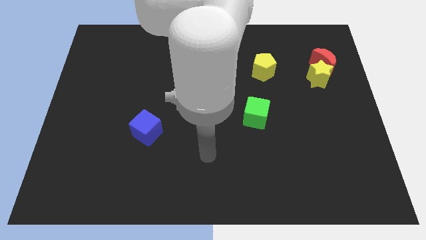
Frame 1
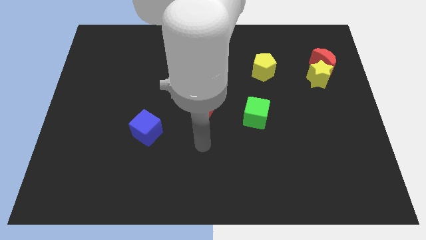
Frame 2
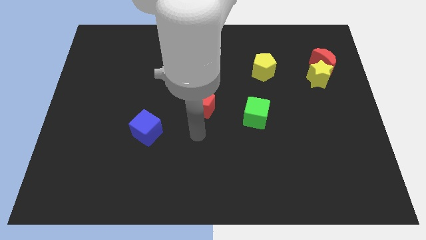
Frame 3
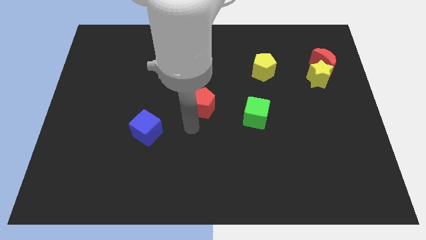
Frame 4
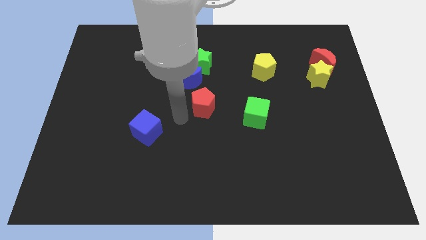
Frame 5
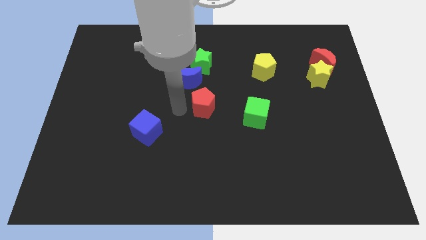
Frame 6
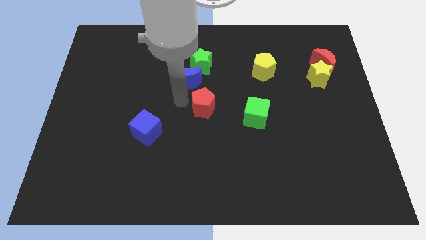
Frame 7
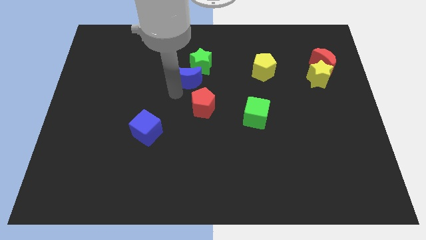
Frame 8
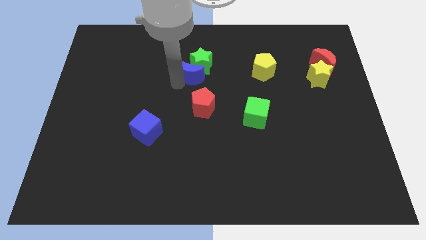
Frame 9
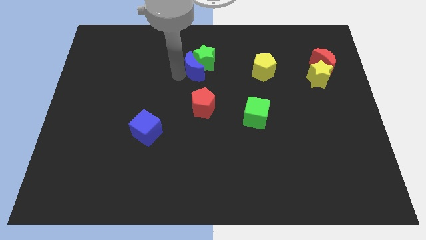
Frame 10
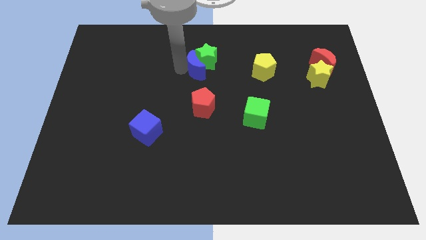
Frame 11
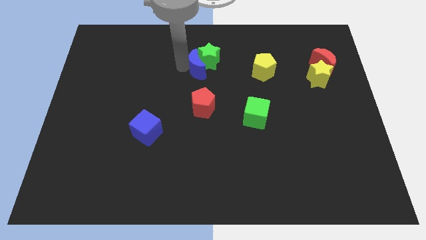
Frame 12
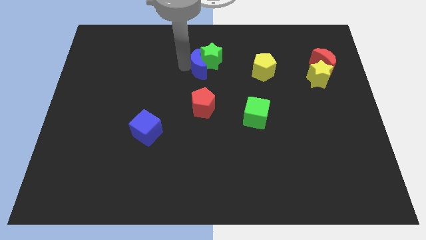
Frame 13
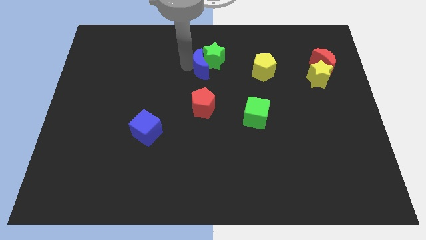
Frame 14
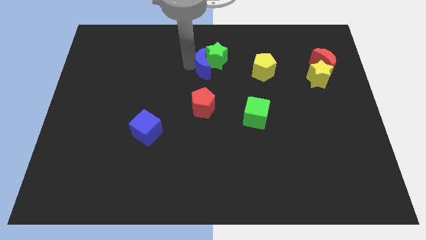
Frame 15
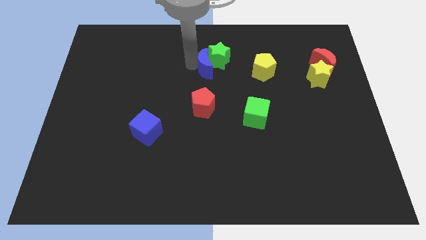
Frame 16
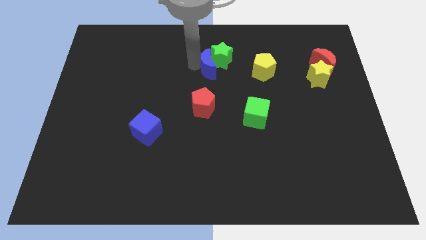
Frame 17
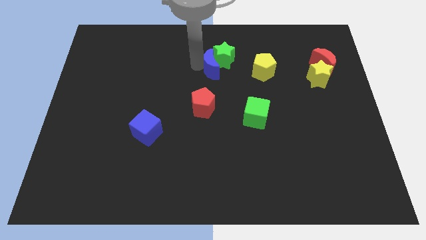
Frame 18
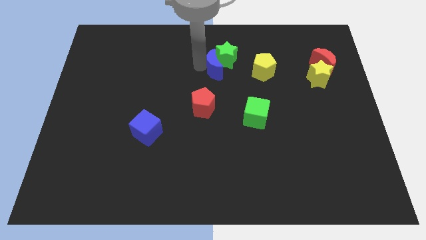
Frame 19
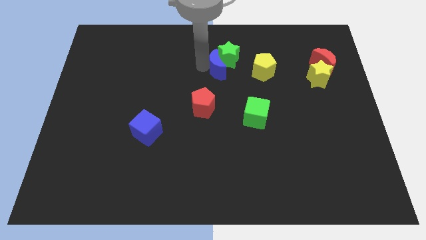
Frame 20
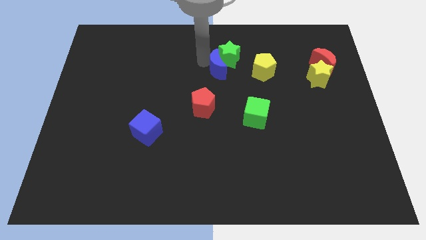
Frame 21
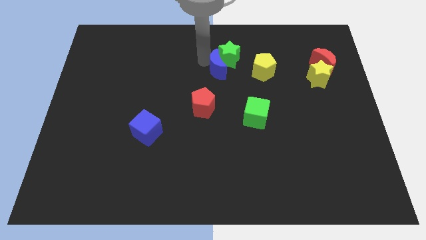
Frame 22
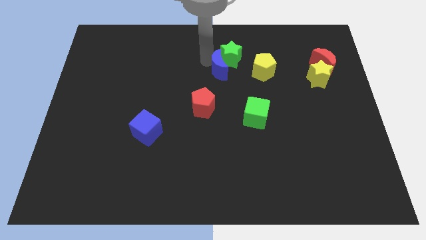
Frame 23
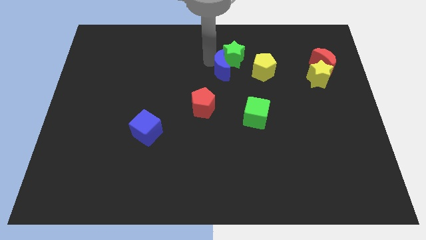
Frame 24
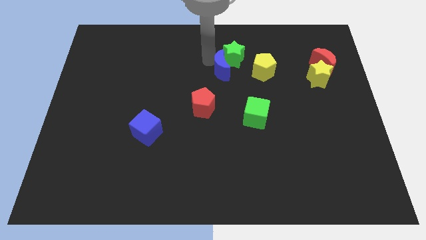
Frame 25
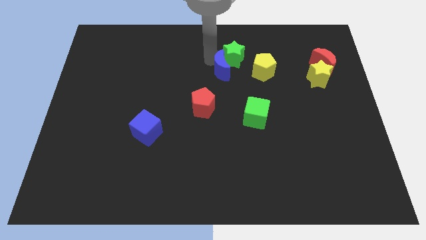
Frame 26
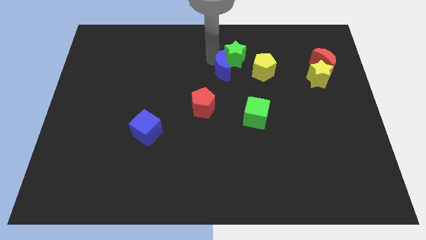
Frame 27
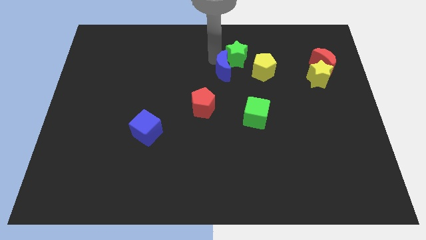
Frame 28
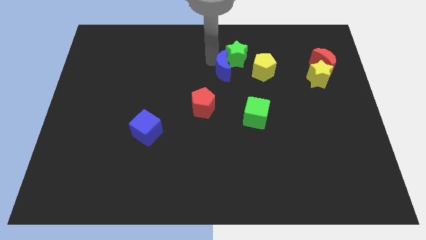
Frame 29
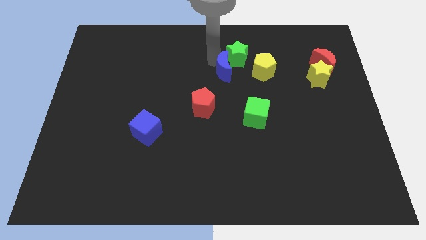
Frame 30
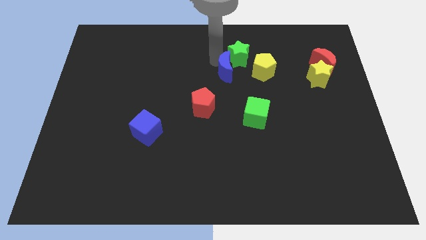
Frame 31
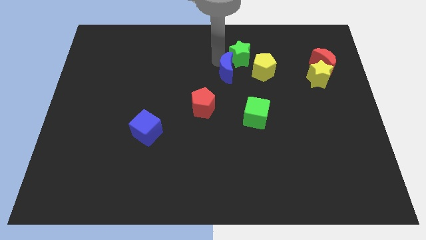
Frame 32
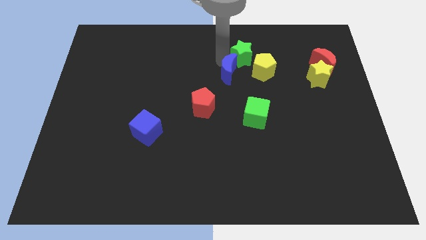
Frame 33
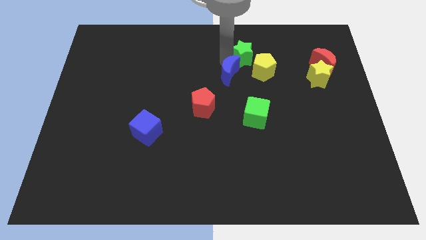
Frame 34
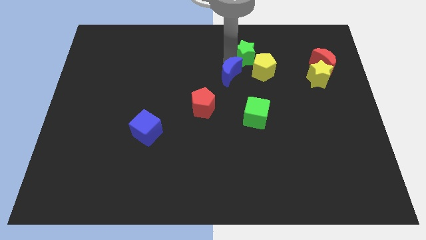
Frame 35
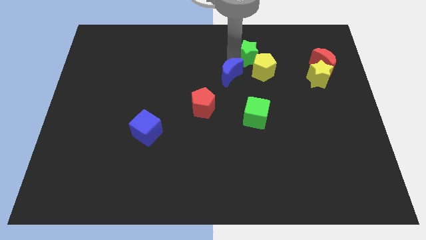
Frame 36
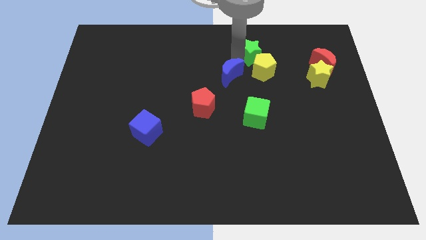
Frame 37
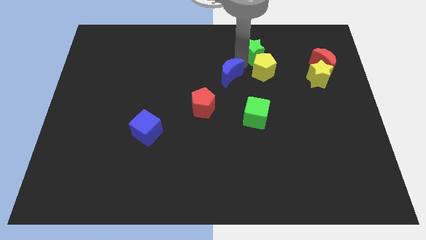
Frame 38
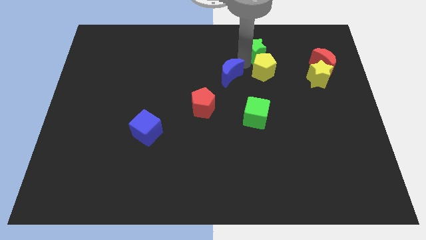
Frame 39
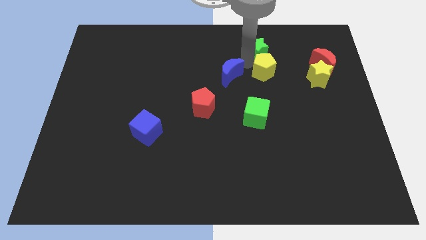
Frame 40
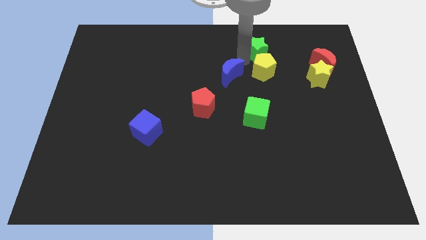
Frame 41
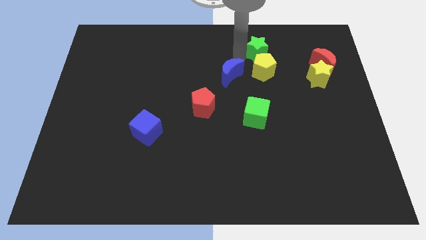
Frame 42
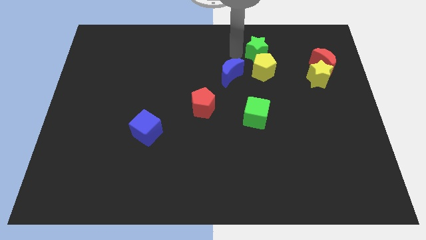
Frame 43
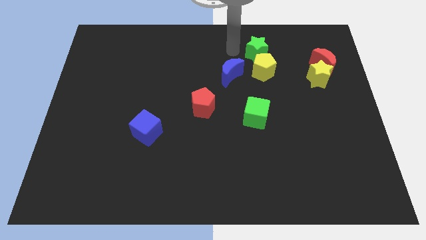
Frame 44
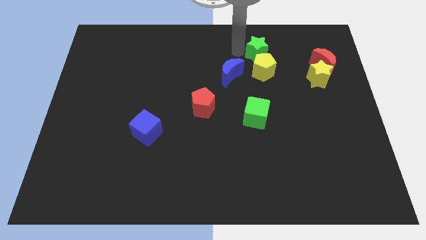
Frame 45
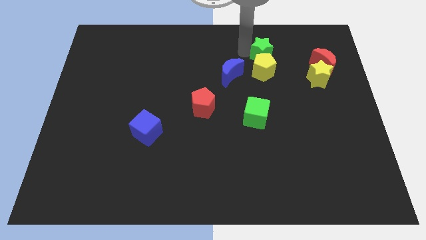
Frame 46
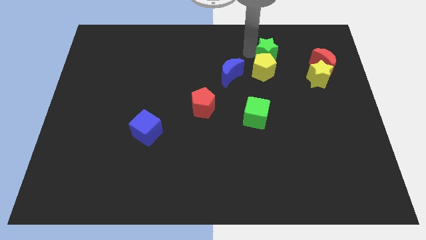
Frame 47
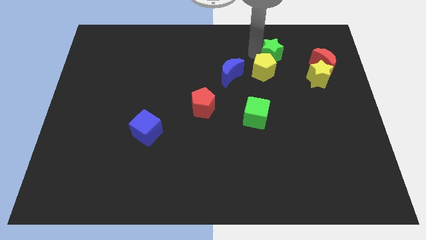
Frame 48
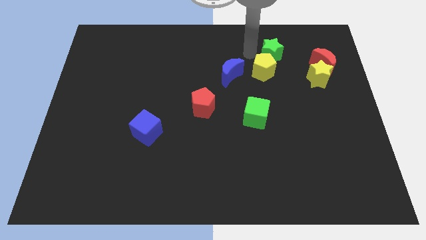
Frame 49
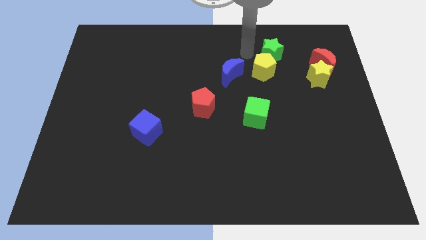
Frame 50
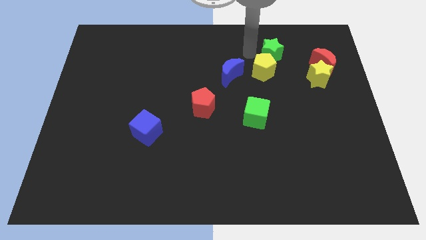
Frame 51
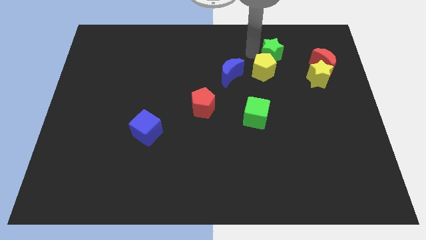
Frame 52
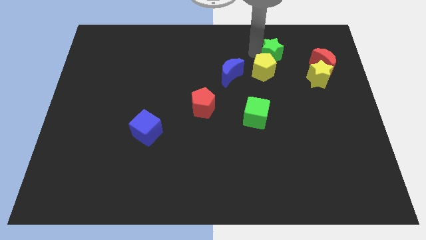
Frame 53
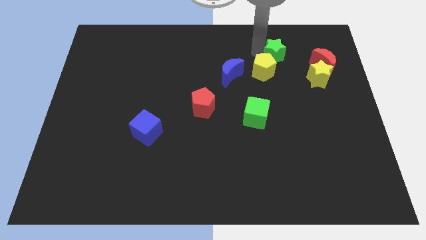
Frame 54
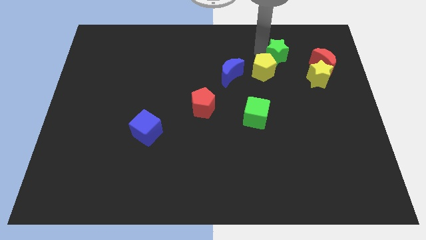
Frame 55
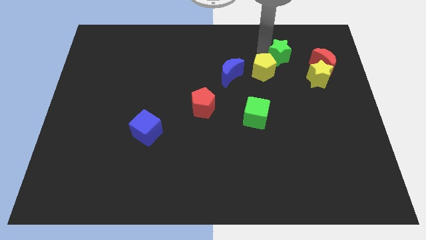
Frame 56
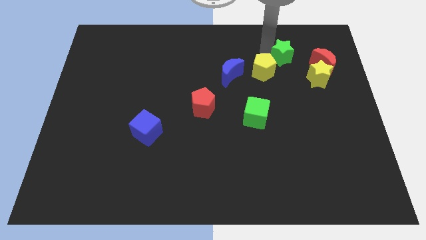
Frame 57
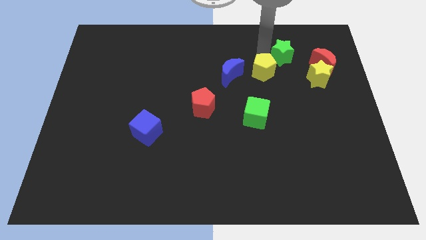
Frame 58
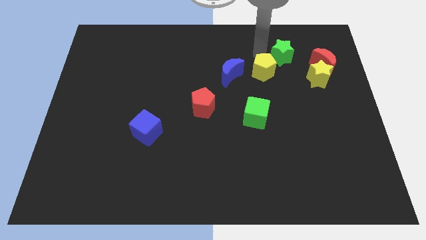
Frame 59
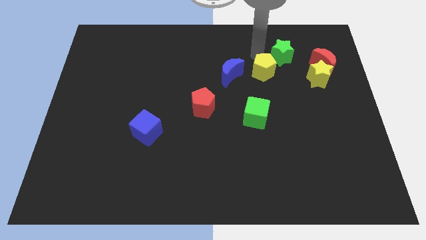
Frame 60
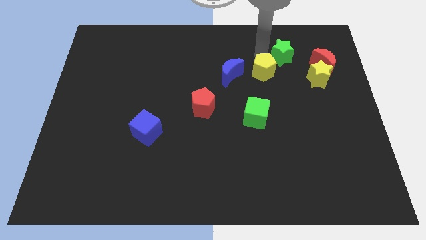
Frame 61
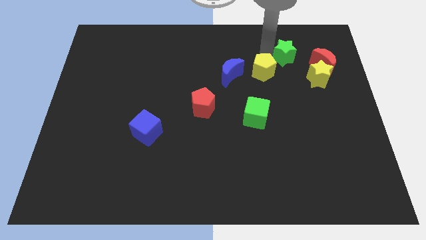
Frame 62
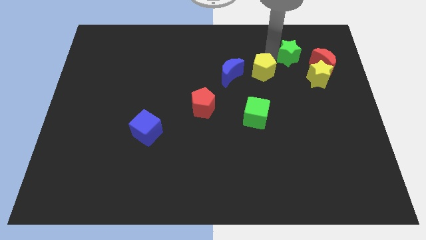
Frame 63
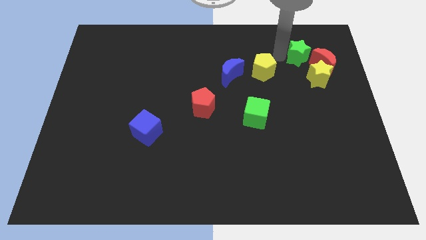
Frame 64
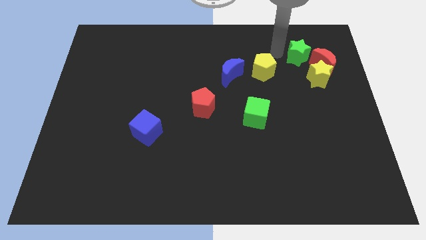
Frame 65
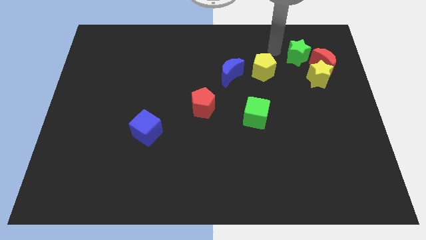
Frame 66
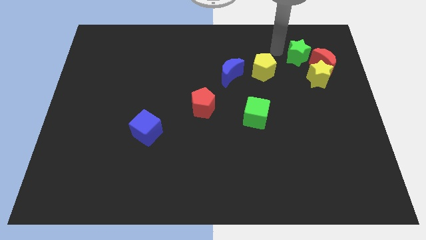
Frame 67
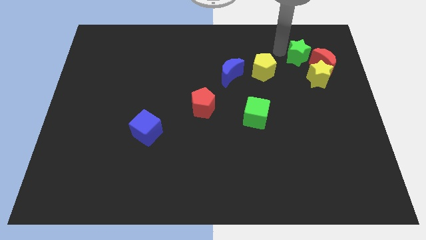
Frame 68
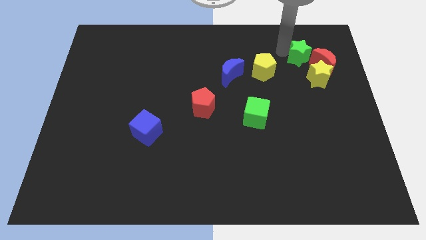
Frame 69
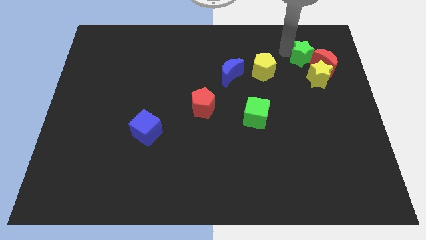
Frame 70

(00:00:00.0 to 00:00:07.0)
slide the green star towards the red moon

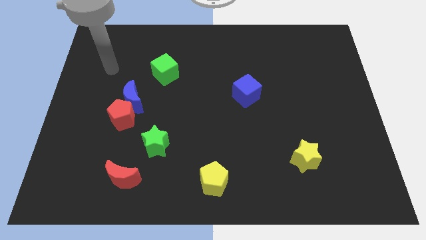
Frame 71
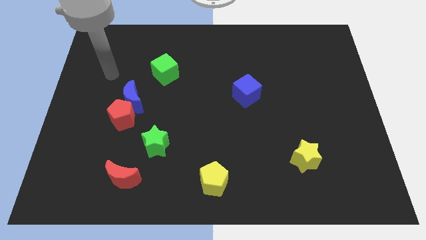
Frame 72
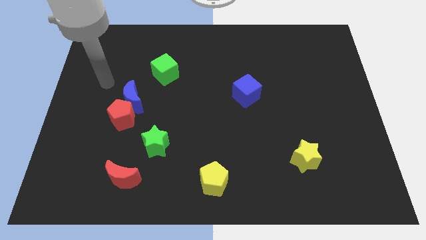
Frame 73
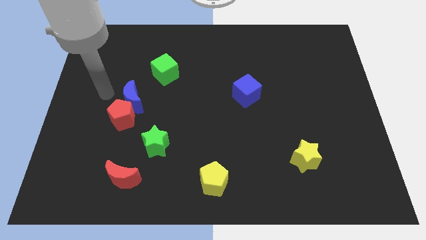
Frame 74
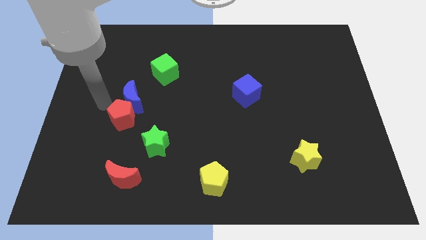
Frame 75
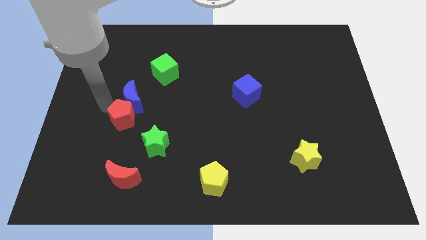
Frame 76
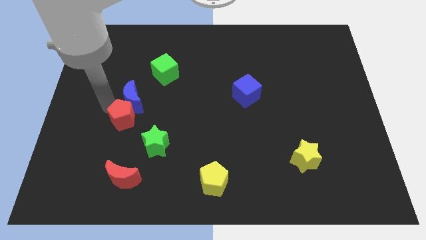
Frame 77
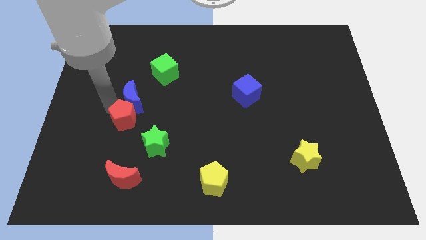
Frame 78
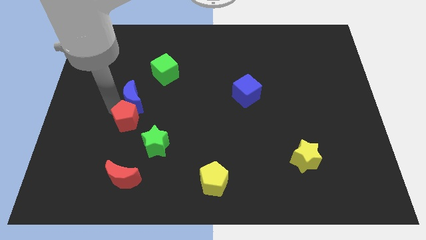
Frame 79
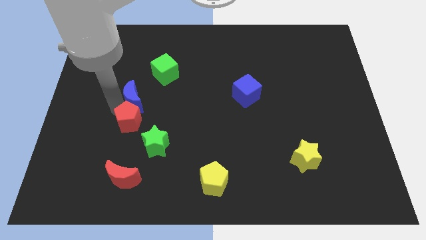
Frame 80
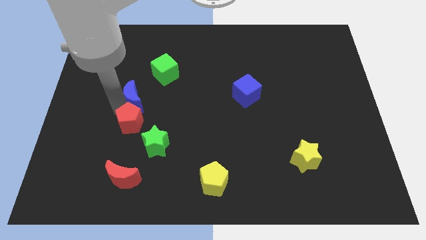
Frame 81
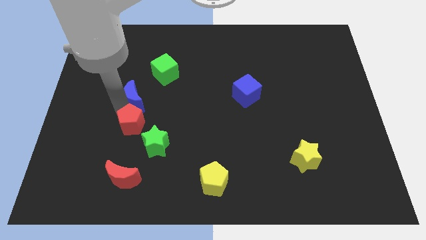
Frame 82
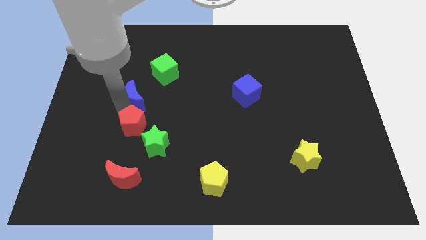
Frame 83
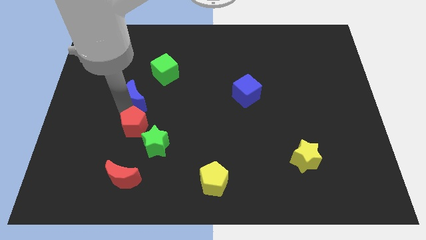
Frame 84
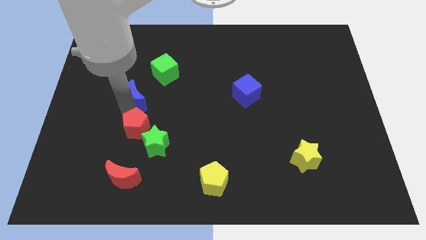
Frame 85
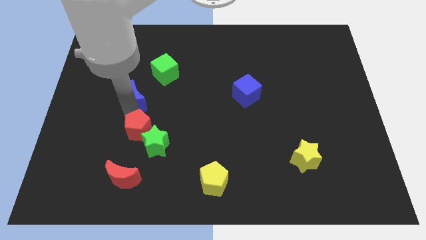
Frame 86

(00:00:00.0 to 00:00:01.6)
move the red pentagon towards the green star
